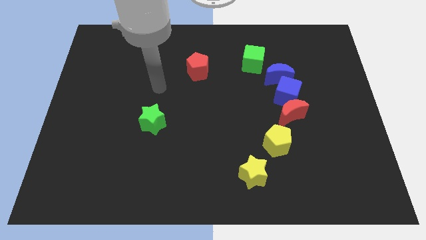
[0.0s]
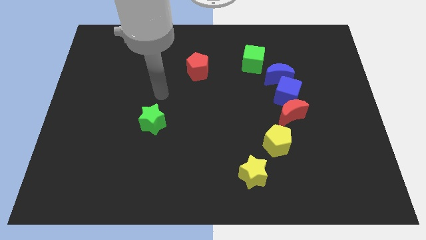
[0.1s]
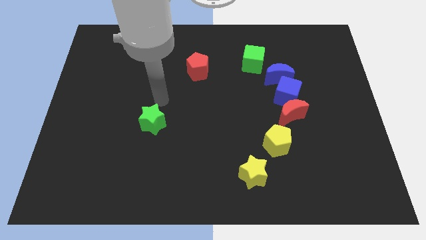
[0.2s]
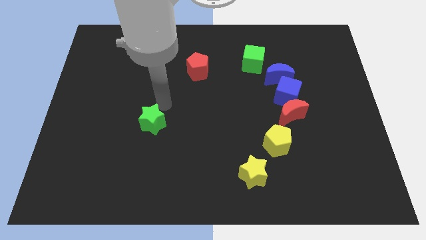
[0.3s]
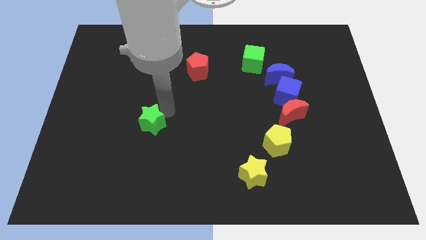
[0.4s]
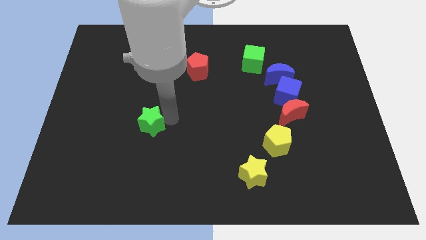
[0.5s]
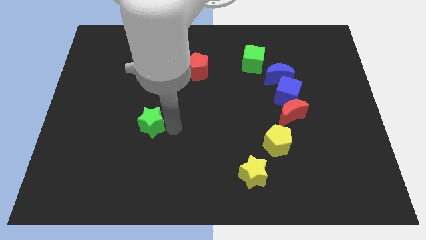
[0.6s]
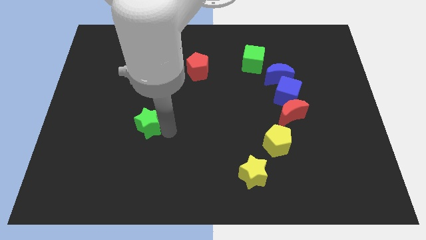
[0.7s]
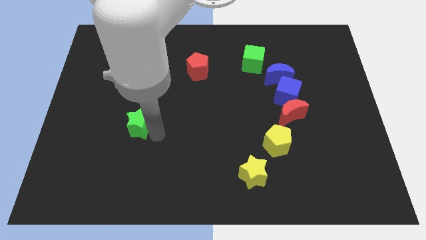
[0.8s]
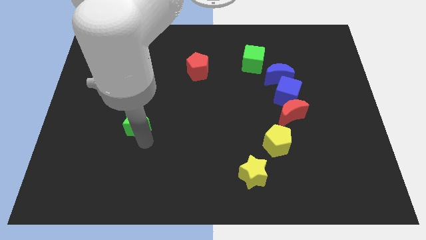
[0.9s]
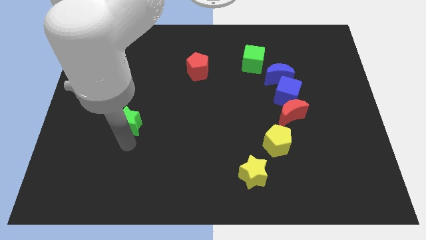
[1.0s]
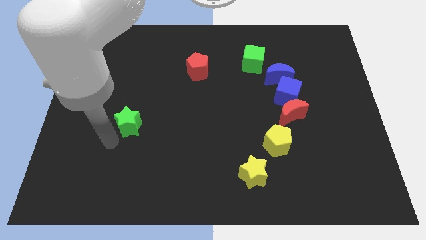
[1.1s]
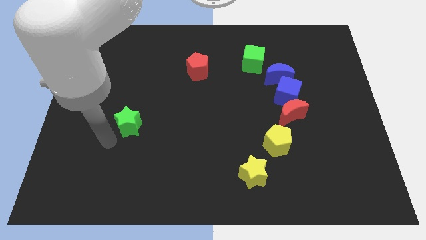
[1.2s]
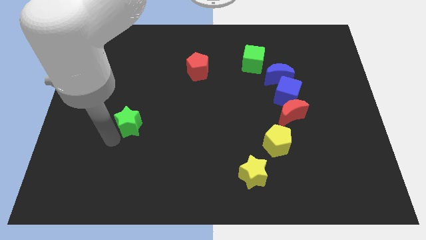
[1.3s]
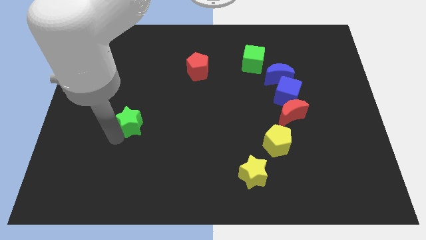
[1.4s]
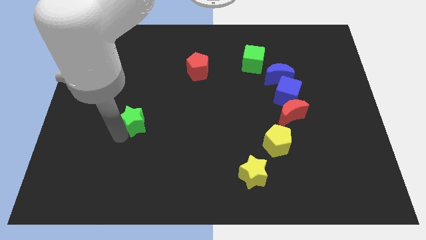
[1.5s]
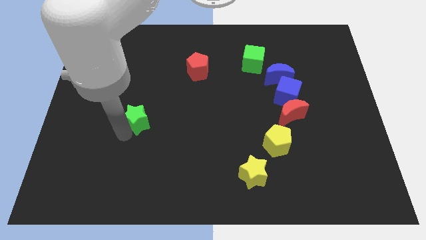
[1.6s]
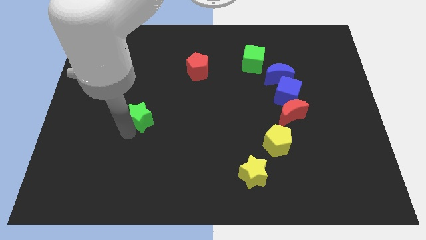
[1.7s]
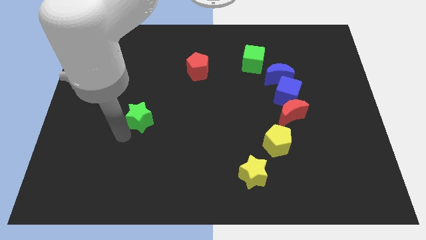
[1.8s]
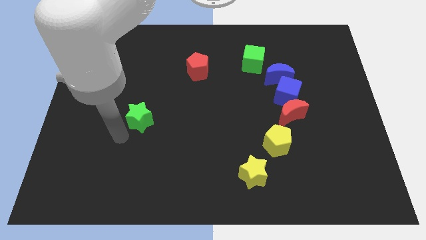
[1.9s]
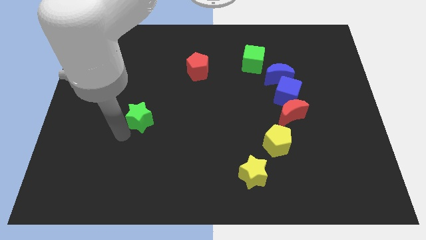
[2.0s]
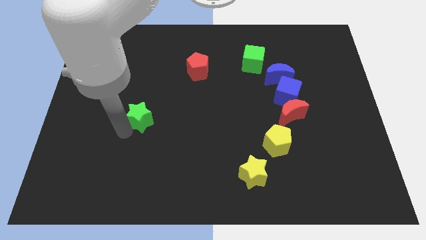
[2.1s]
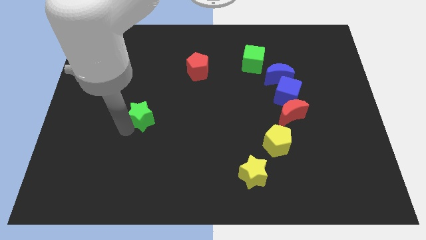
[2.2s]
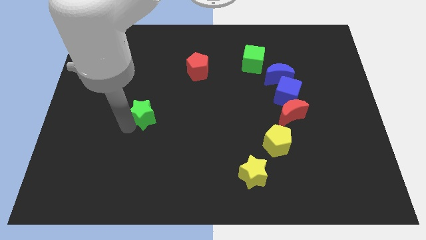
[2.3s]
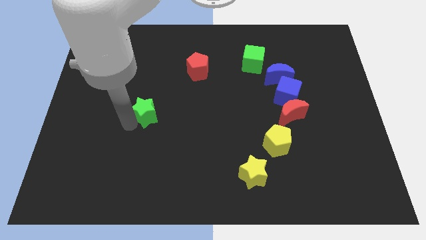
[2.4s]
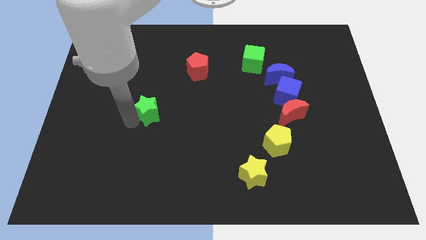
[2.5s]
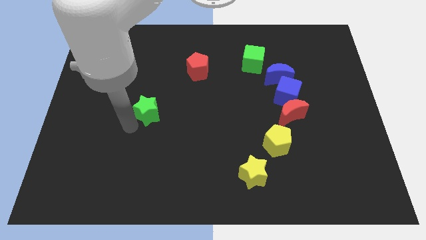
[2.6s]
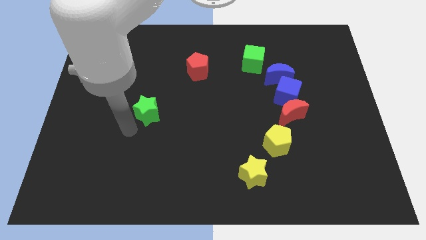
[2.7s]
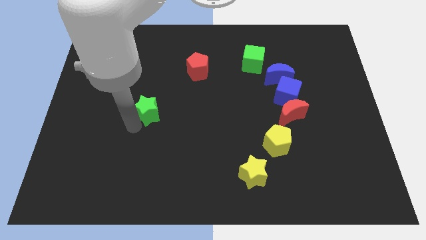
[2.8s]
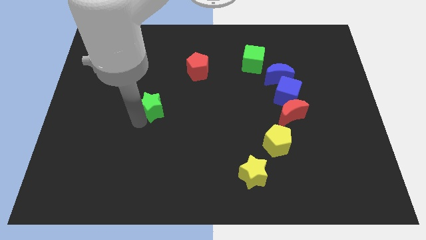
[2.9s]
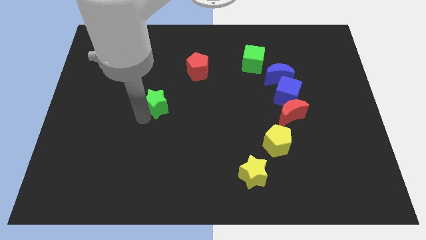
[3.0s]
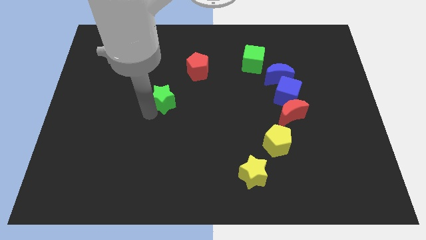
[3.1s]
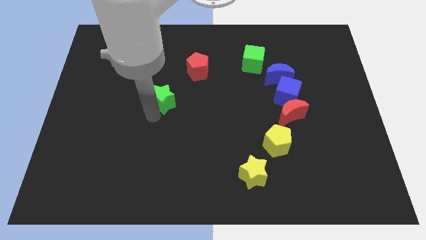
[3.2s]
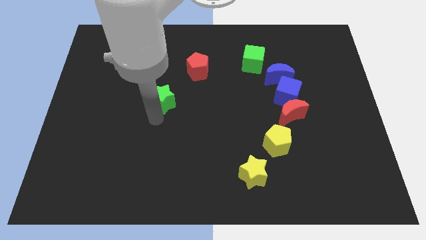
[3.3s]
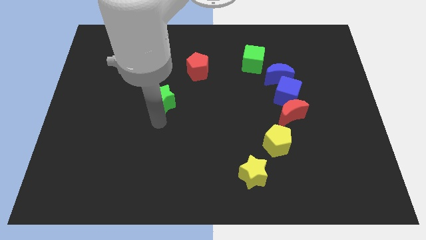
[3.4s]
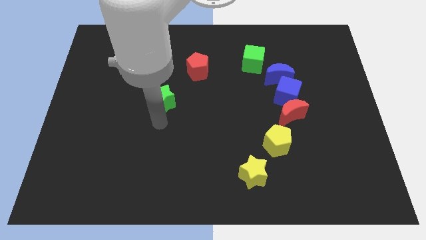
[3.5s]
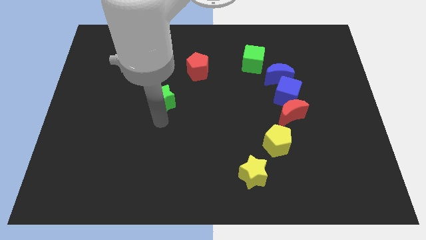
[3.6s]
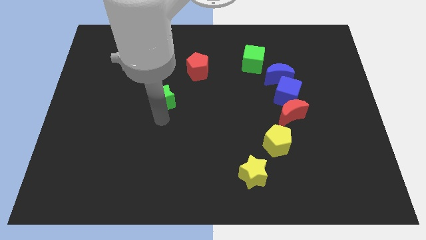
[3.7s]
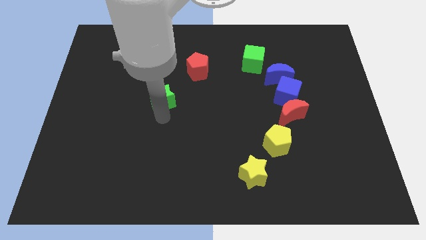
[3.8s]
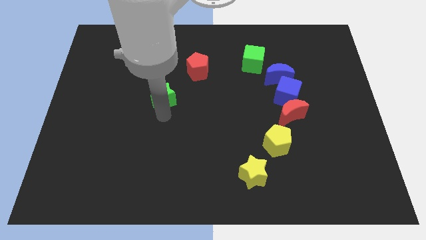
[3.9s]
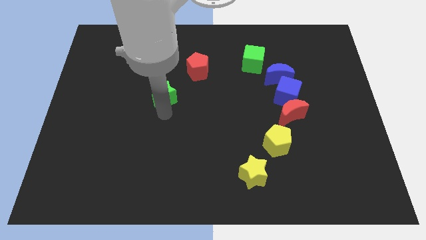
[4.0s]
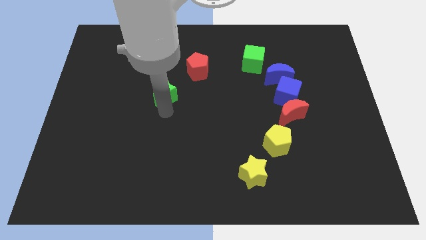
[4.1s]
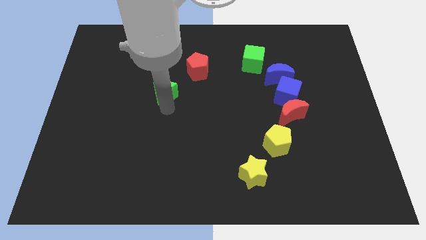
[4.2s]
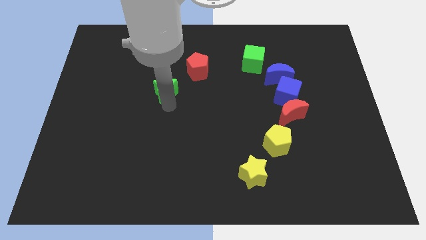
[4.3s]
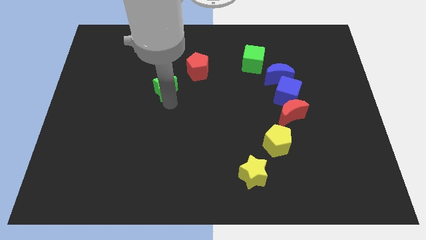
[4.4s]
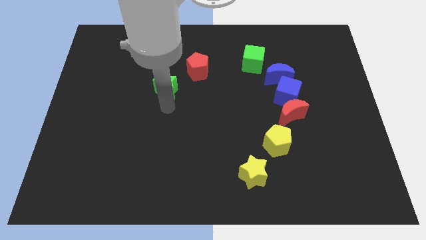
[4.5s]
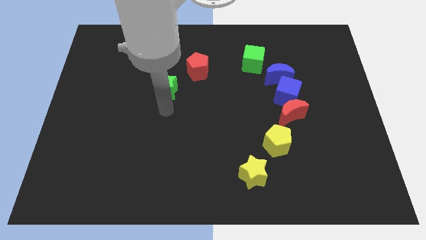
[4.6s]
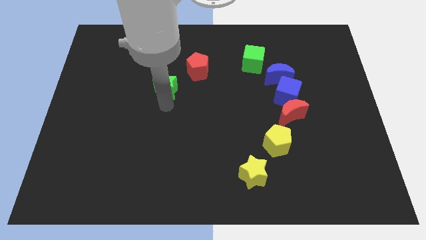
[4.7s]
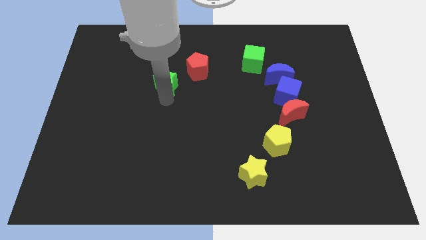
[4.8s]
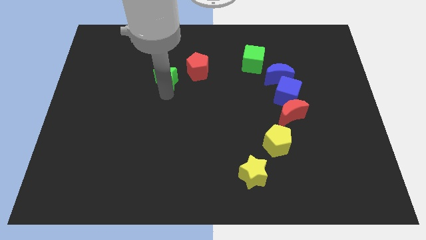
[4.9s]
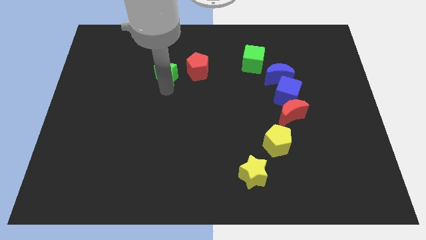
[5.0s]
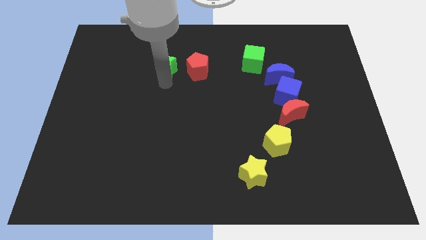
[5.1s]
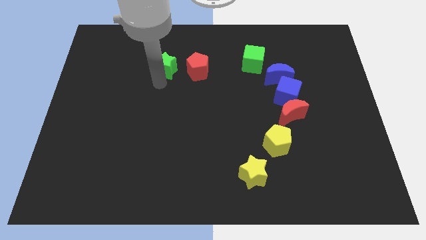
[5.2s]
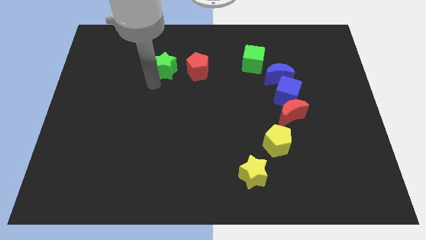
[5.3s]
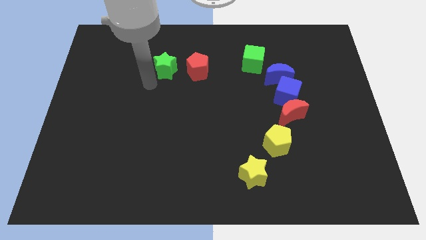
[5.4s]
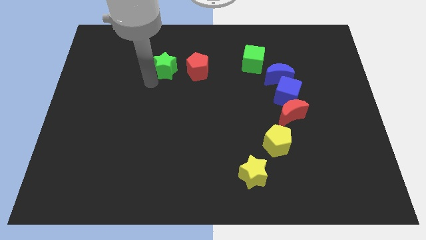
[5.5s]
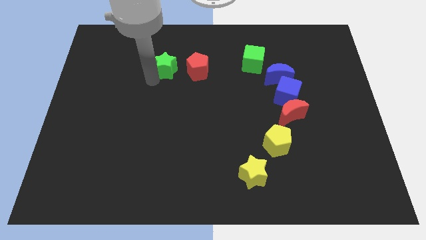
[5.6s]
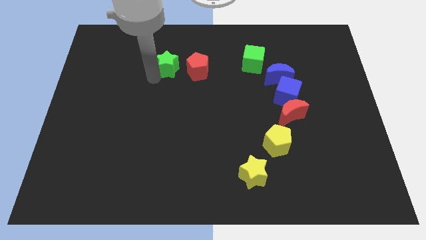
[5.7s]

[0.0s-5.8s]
slide the green star to the top left side of the red pentagon

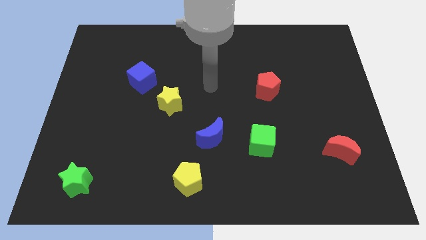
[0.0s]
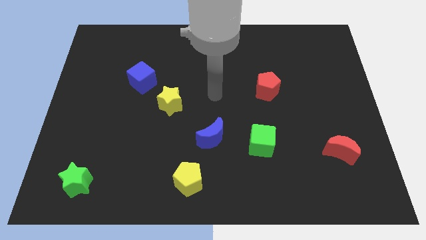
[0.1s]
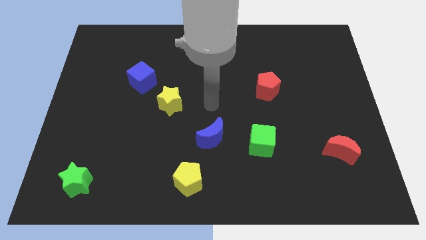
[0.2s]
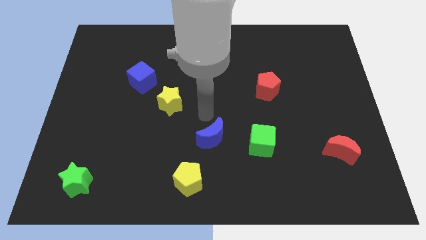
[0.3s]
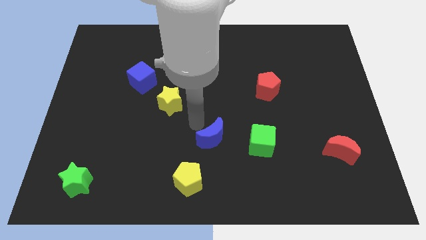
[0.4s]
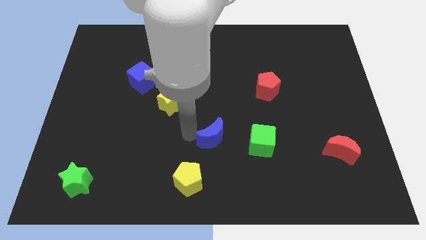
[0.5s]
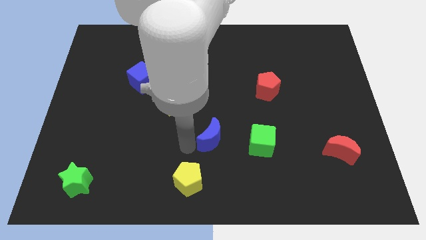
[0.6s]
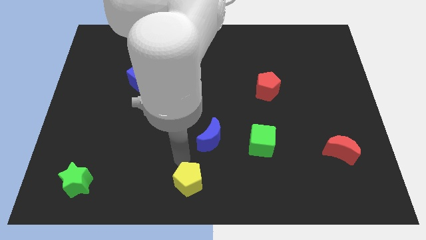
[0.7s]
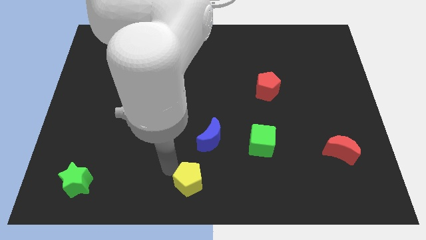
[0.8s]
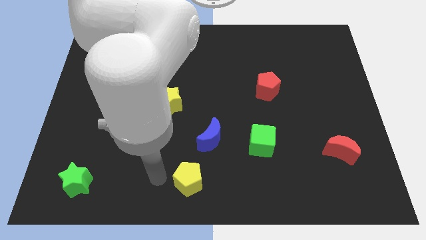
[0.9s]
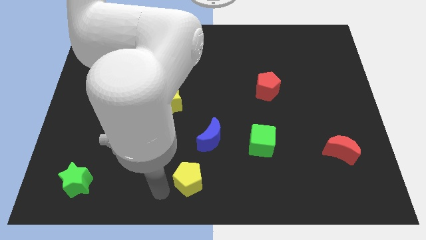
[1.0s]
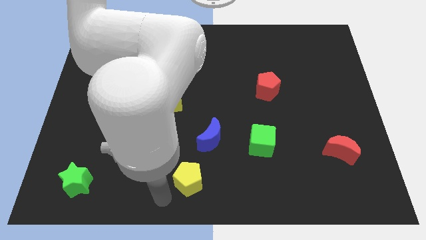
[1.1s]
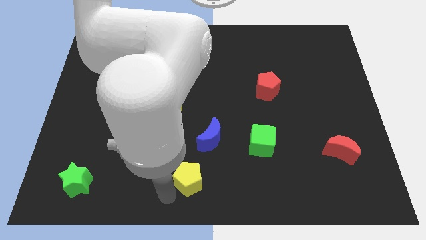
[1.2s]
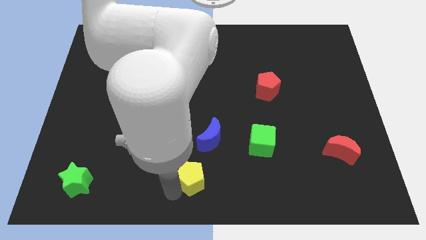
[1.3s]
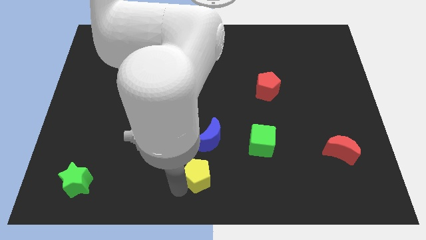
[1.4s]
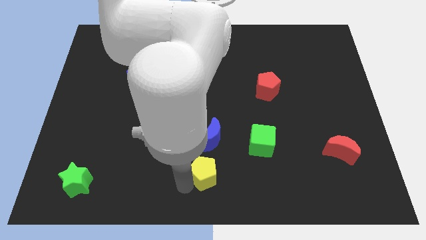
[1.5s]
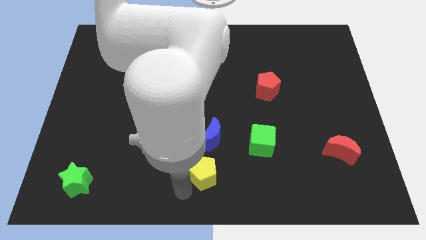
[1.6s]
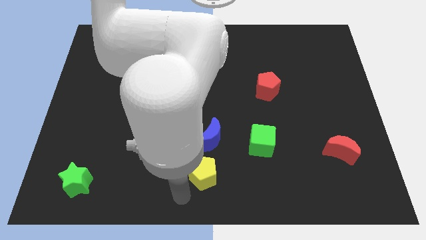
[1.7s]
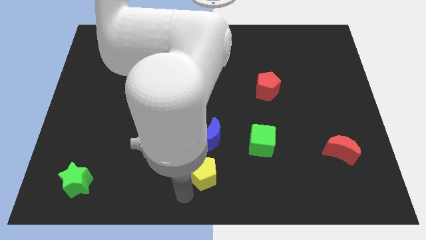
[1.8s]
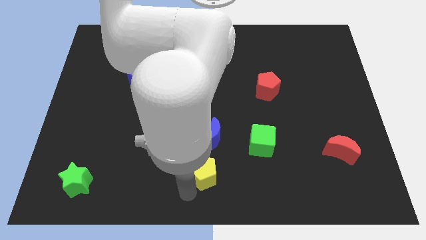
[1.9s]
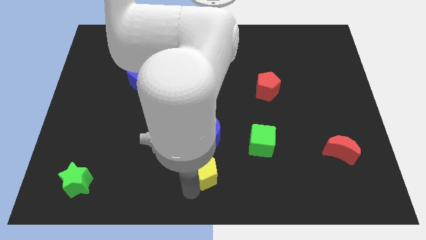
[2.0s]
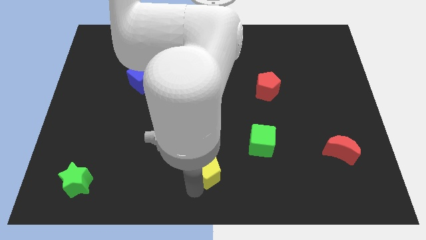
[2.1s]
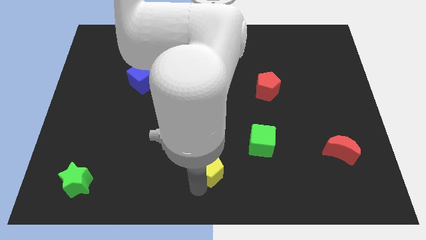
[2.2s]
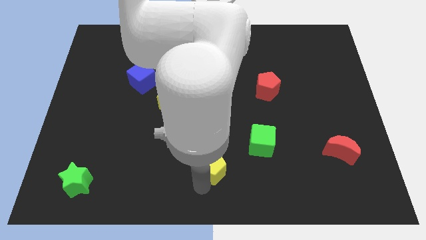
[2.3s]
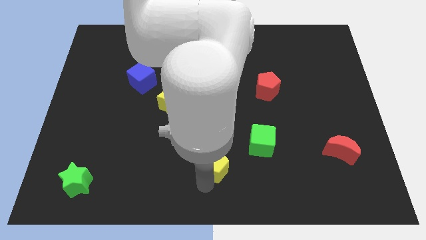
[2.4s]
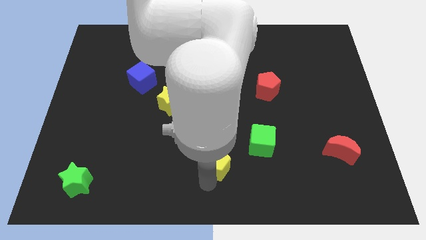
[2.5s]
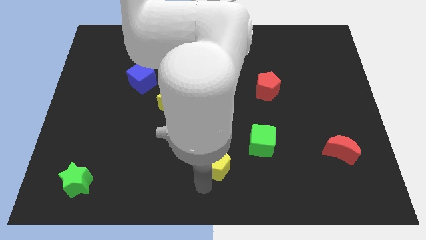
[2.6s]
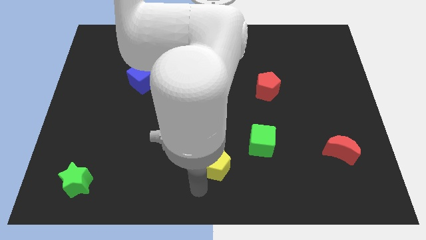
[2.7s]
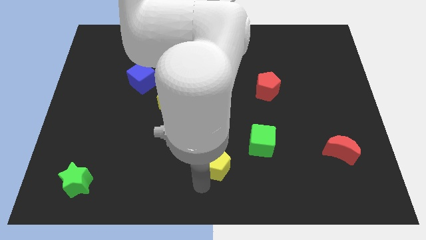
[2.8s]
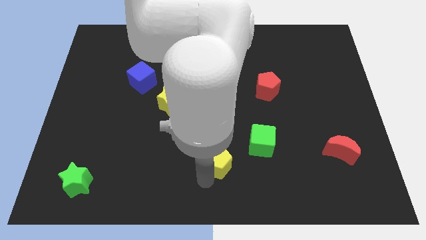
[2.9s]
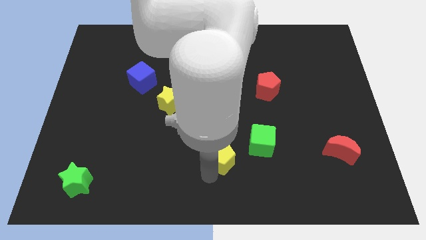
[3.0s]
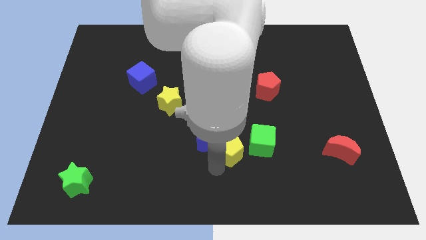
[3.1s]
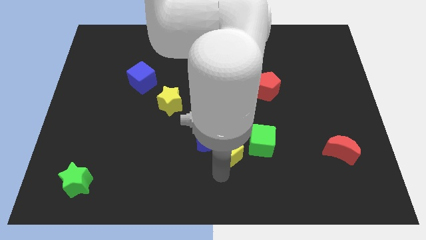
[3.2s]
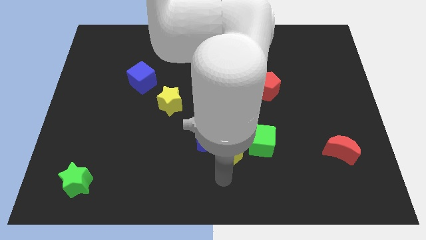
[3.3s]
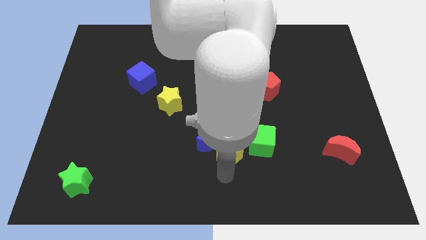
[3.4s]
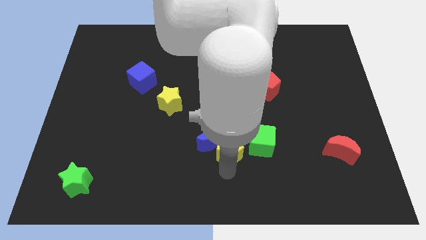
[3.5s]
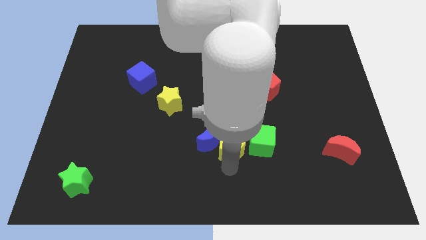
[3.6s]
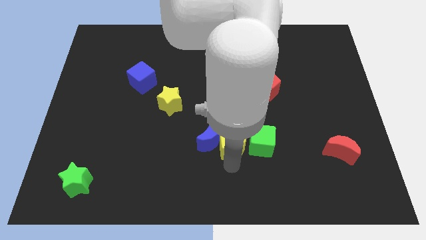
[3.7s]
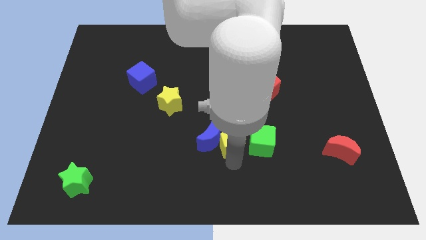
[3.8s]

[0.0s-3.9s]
push the yellow pentagon to the top left side of the green cube
